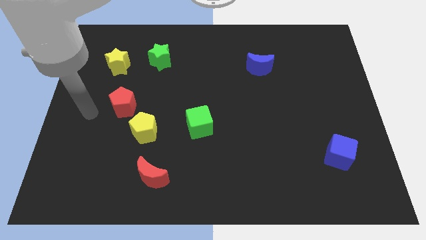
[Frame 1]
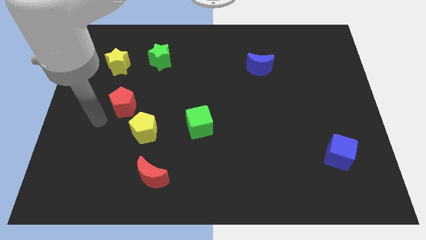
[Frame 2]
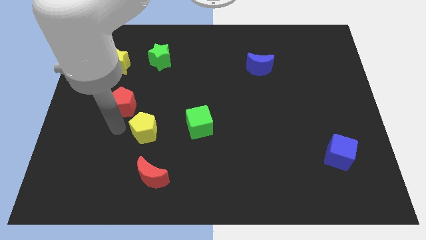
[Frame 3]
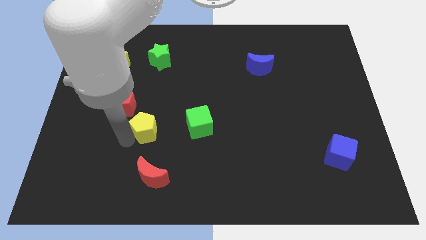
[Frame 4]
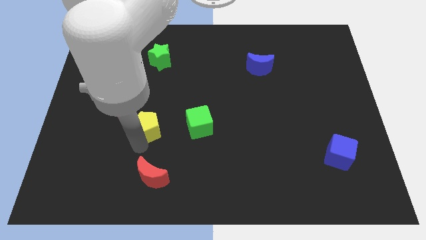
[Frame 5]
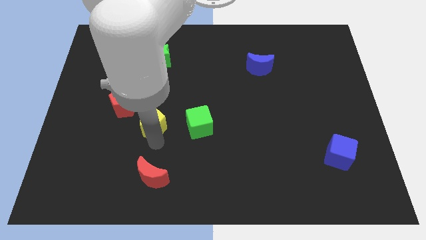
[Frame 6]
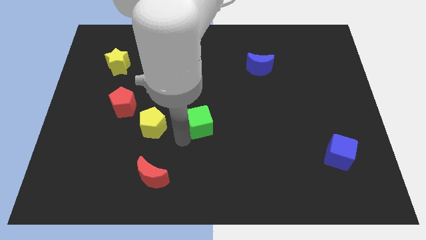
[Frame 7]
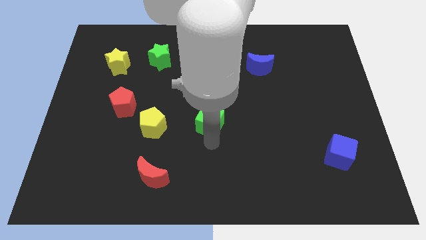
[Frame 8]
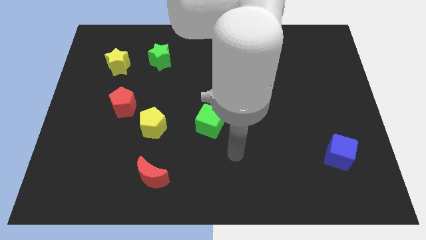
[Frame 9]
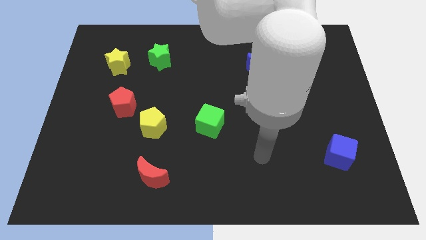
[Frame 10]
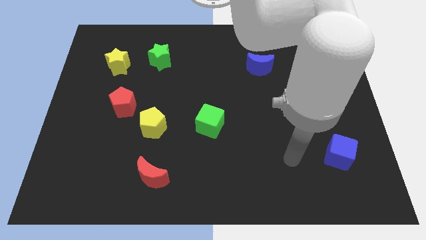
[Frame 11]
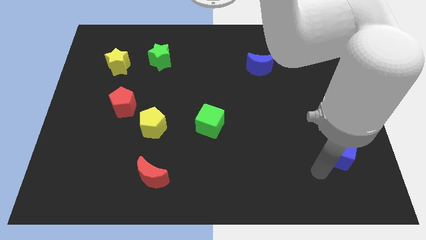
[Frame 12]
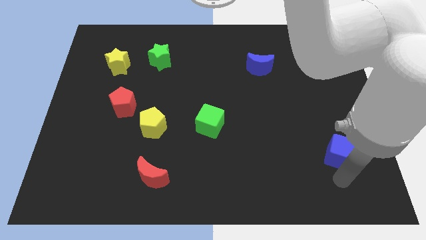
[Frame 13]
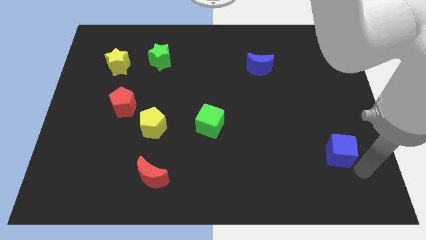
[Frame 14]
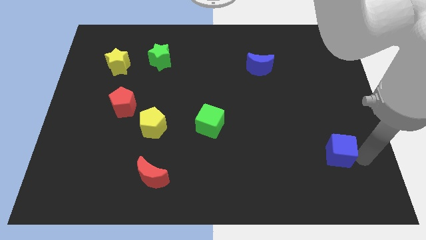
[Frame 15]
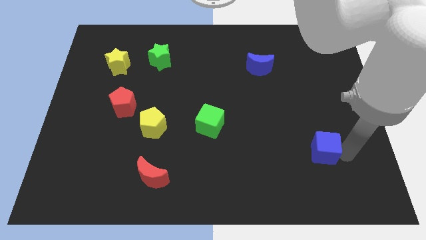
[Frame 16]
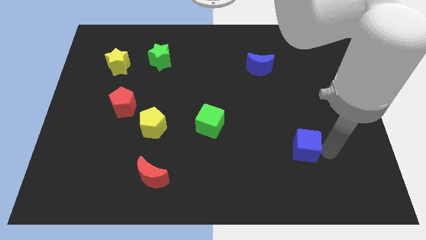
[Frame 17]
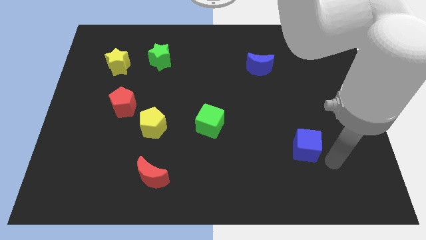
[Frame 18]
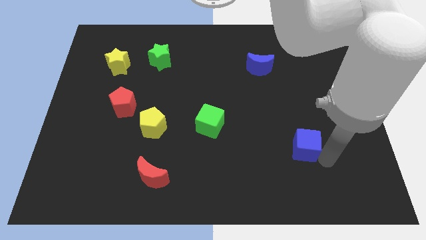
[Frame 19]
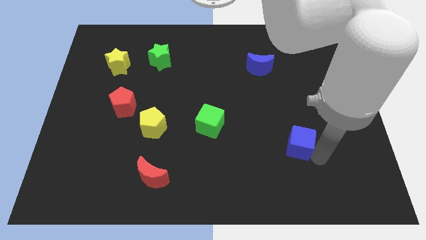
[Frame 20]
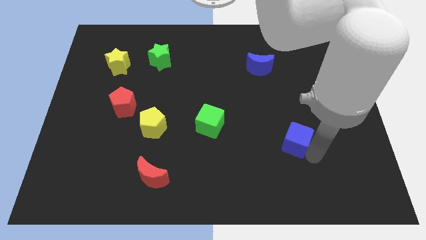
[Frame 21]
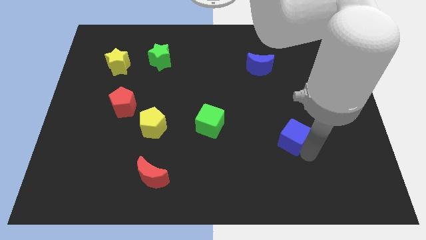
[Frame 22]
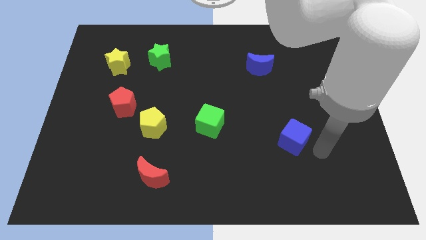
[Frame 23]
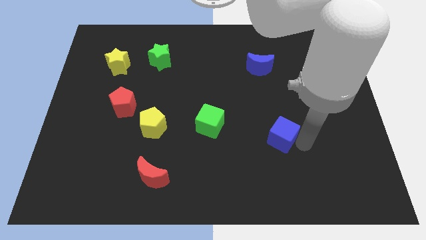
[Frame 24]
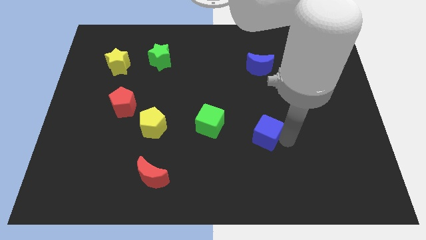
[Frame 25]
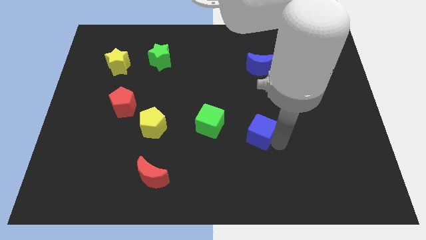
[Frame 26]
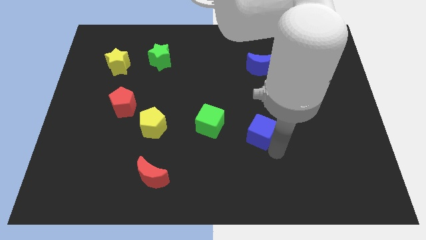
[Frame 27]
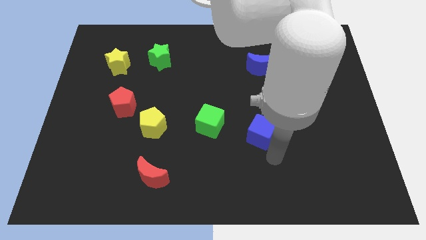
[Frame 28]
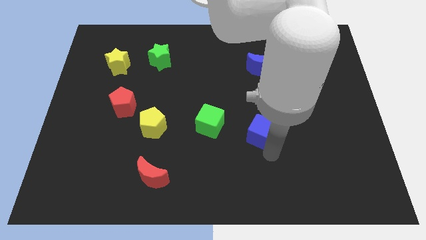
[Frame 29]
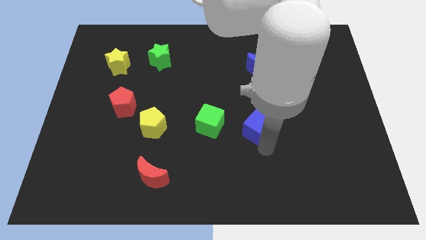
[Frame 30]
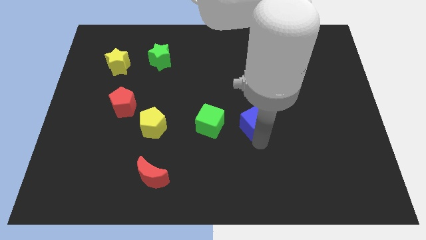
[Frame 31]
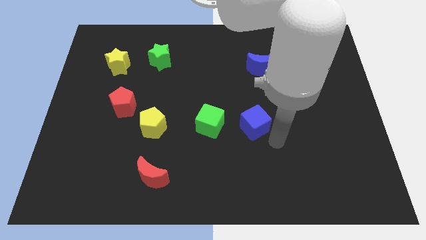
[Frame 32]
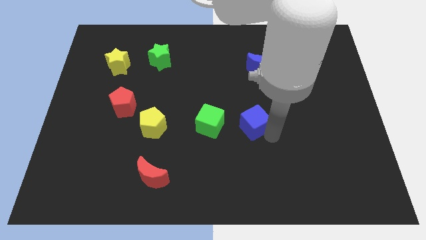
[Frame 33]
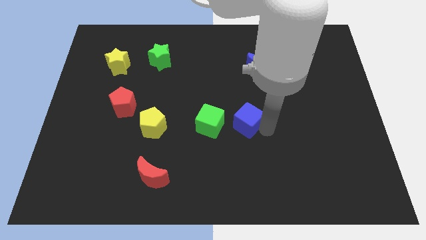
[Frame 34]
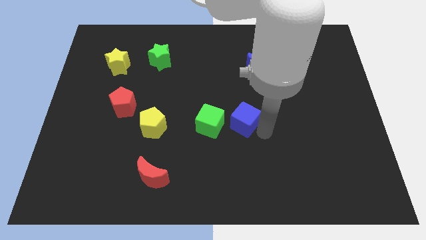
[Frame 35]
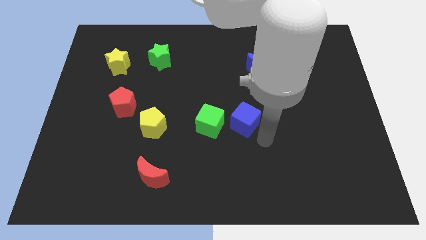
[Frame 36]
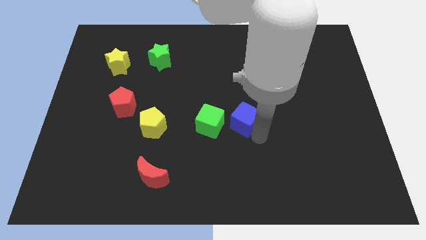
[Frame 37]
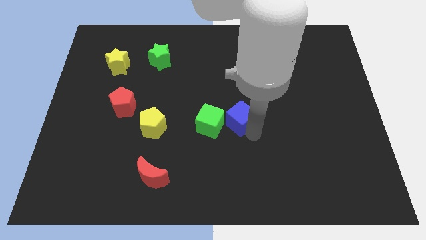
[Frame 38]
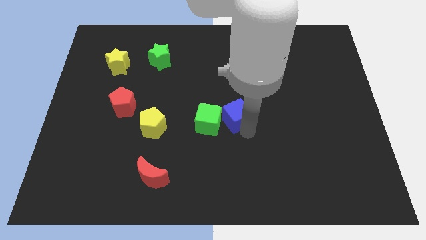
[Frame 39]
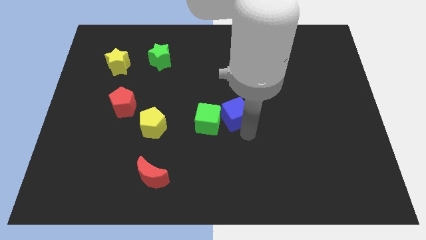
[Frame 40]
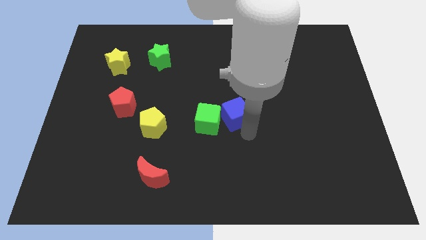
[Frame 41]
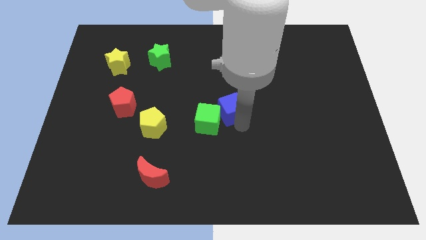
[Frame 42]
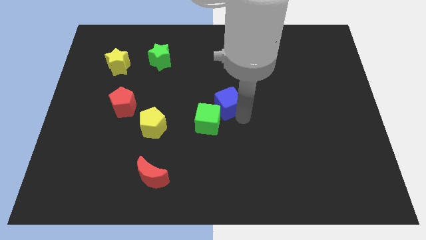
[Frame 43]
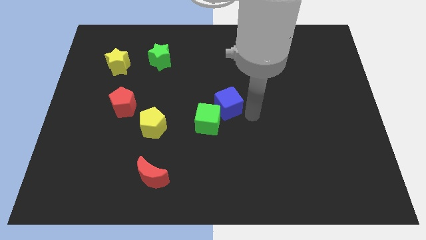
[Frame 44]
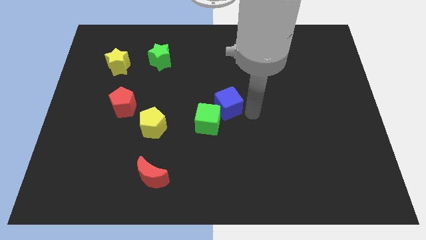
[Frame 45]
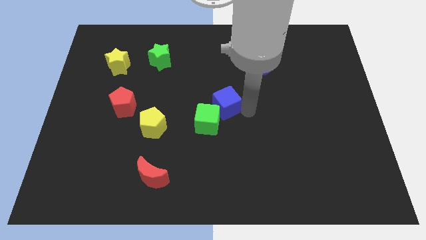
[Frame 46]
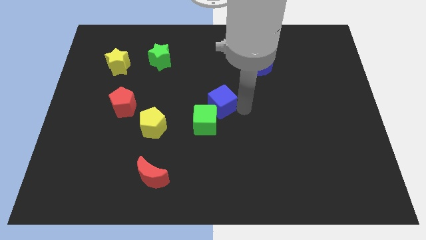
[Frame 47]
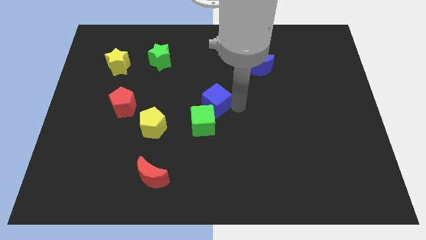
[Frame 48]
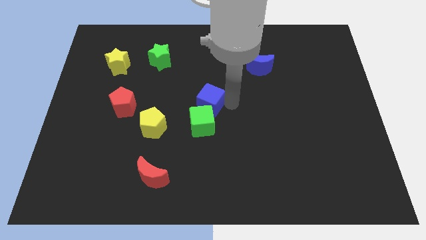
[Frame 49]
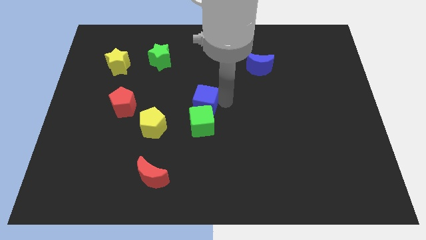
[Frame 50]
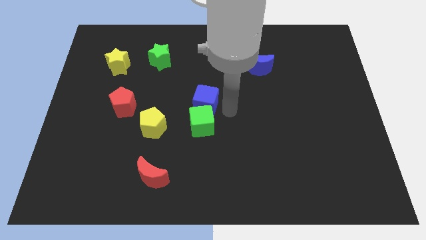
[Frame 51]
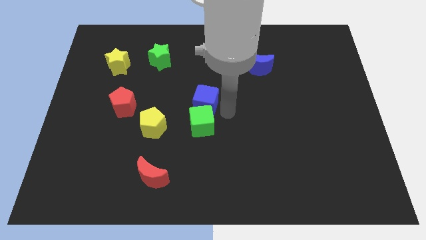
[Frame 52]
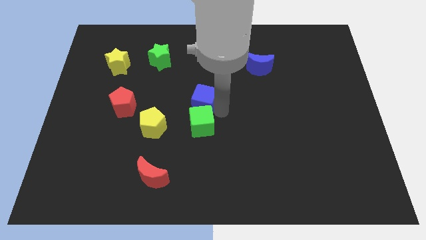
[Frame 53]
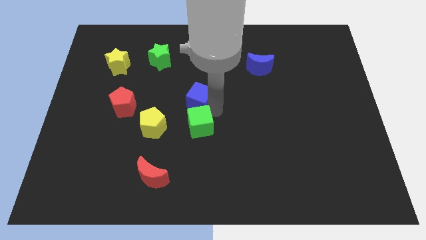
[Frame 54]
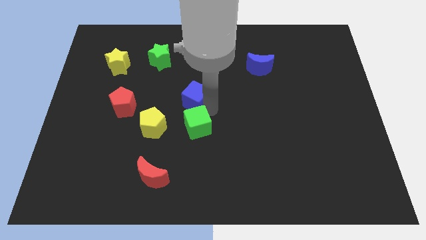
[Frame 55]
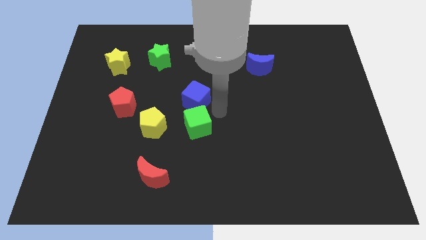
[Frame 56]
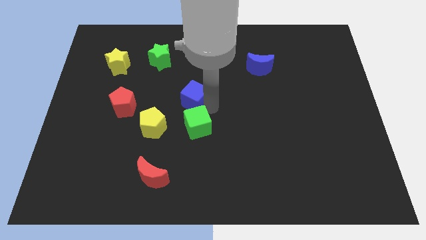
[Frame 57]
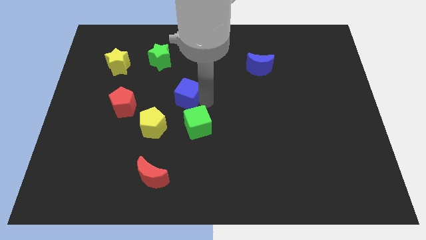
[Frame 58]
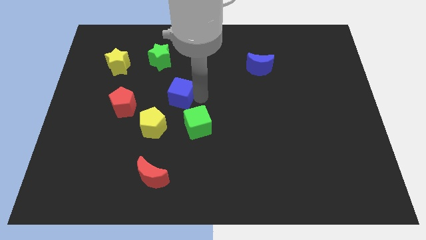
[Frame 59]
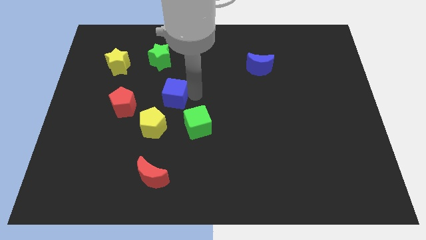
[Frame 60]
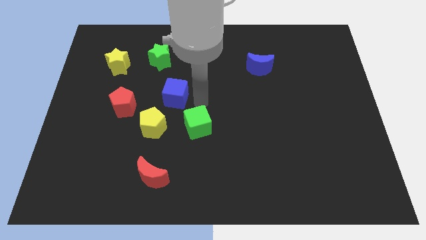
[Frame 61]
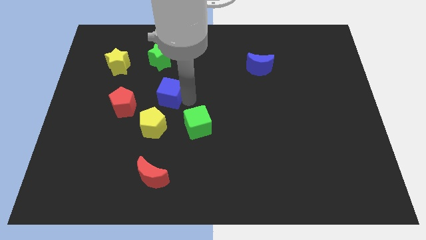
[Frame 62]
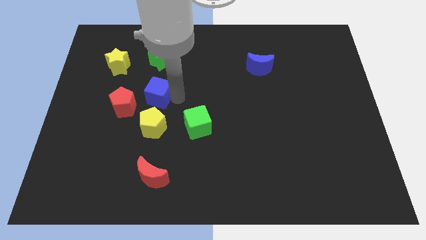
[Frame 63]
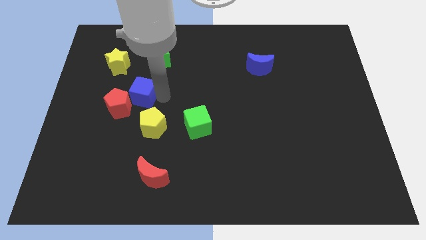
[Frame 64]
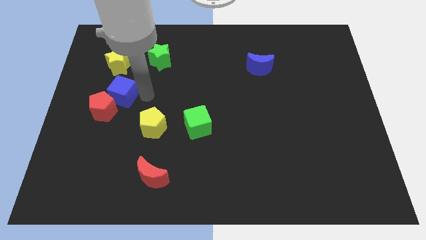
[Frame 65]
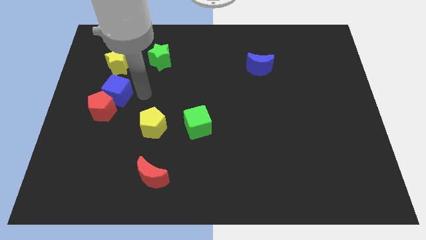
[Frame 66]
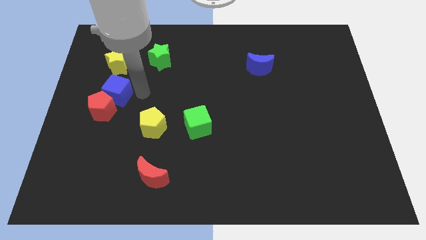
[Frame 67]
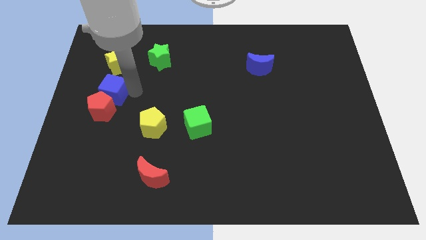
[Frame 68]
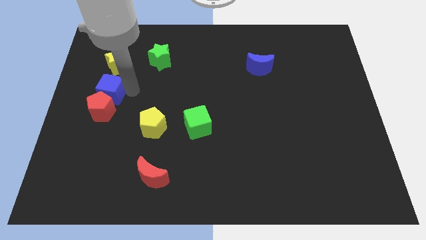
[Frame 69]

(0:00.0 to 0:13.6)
put the blue cube to the top left of the red pentagon

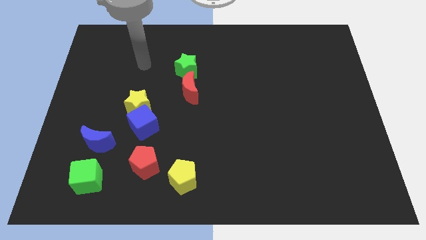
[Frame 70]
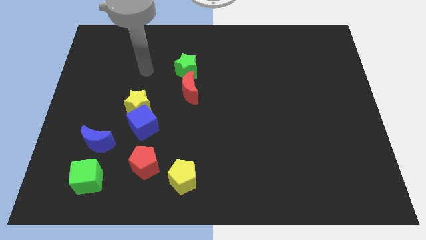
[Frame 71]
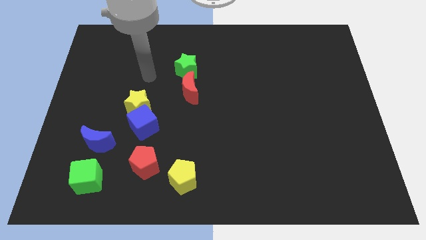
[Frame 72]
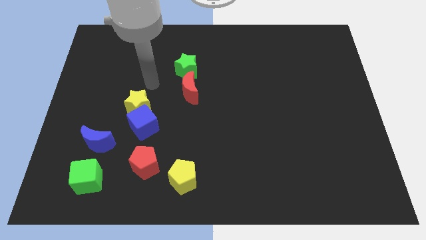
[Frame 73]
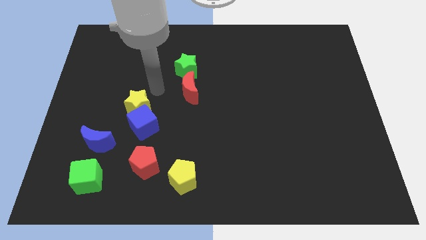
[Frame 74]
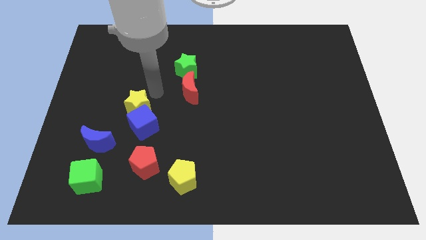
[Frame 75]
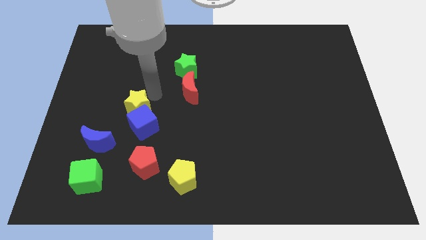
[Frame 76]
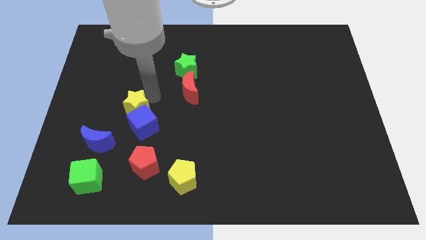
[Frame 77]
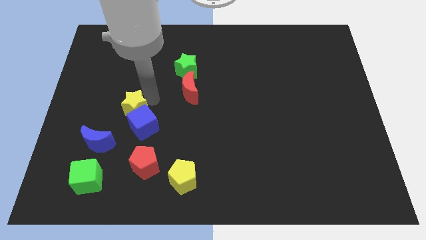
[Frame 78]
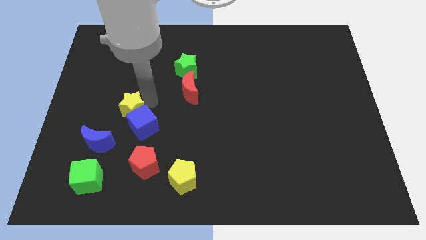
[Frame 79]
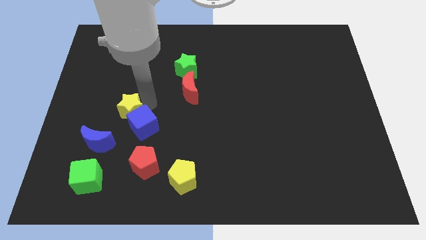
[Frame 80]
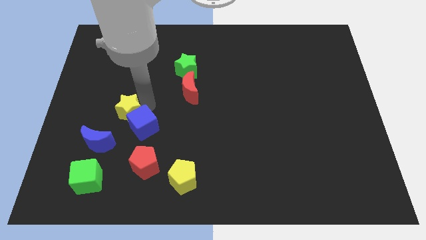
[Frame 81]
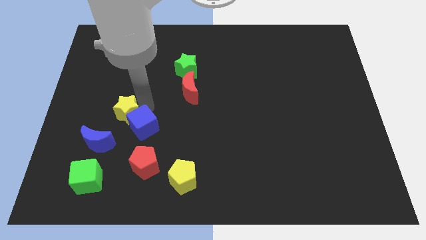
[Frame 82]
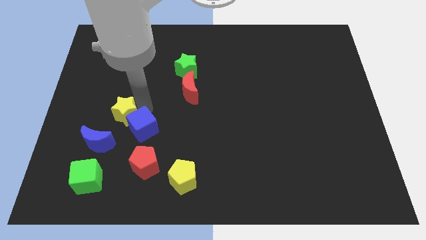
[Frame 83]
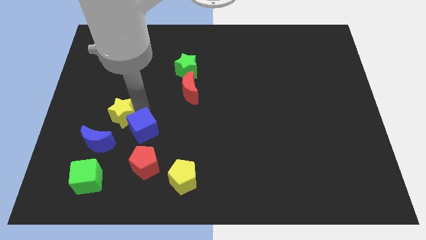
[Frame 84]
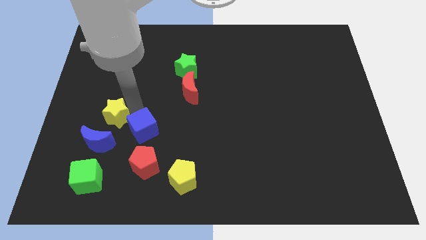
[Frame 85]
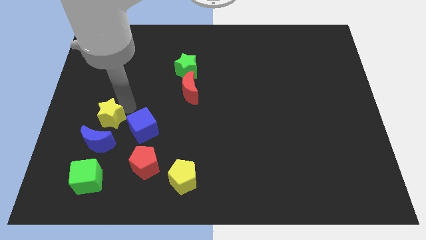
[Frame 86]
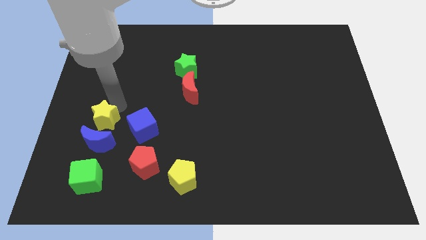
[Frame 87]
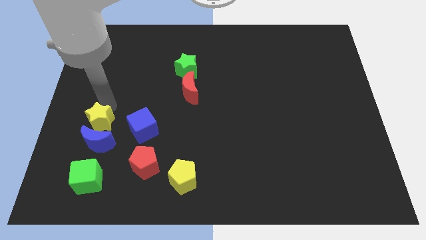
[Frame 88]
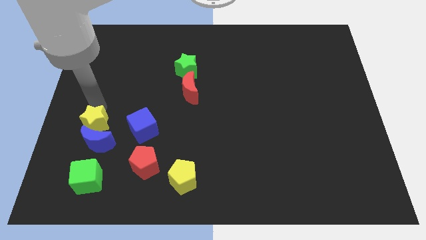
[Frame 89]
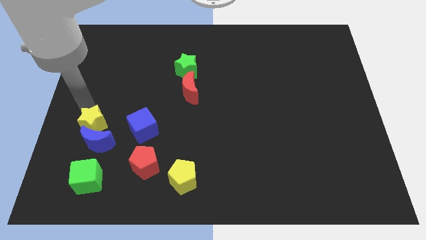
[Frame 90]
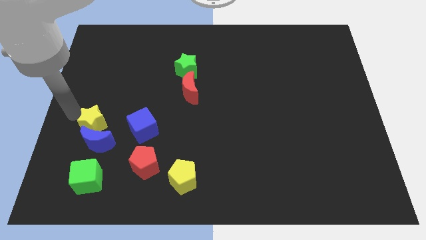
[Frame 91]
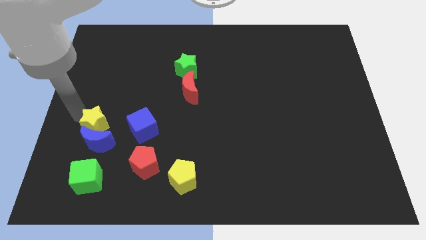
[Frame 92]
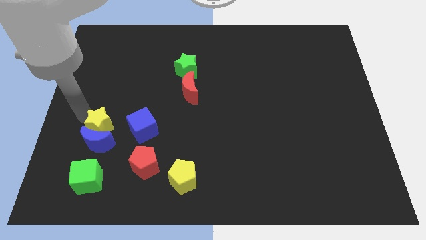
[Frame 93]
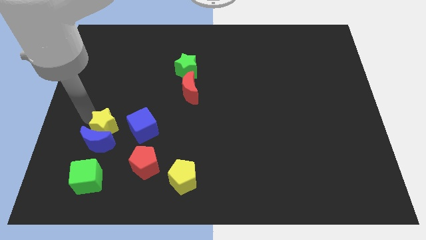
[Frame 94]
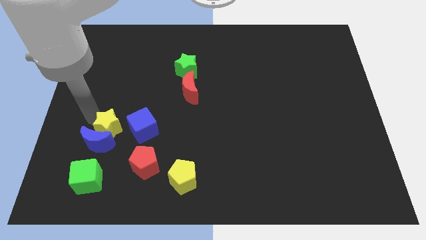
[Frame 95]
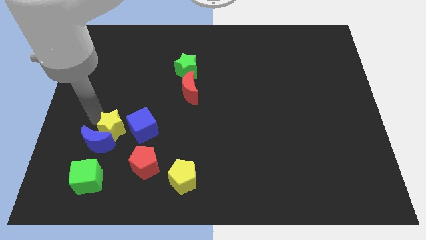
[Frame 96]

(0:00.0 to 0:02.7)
push the yellow star to the right of the blue moon
